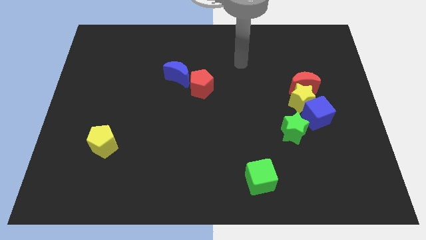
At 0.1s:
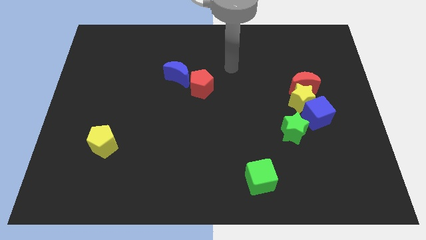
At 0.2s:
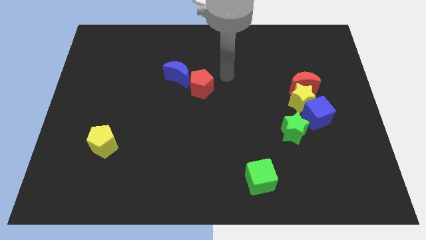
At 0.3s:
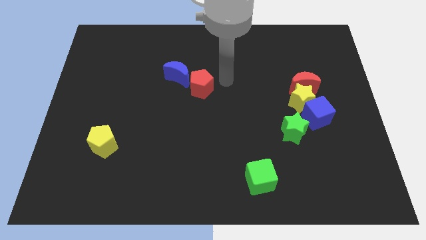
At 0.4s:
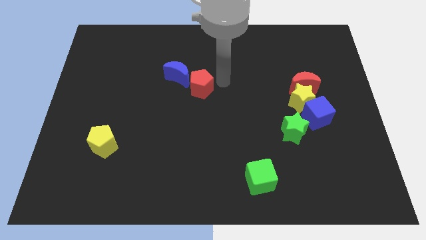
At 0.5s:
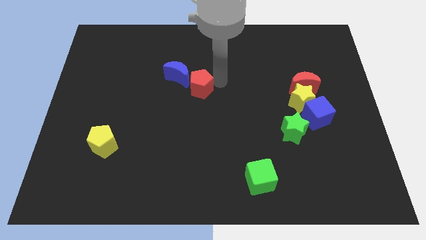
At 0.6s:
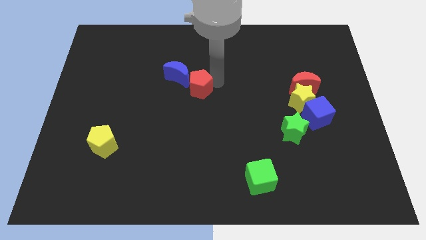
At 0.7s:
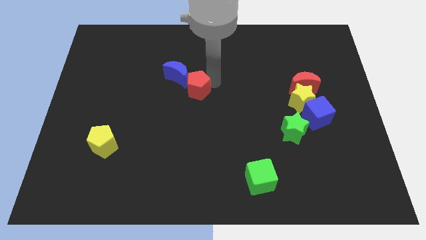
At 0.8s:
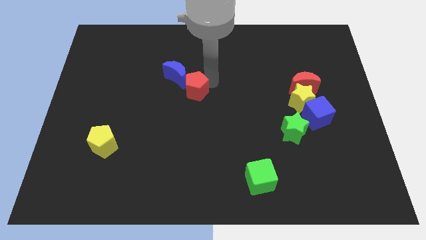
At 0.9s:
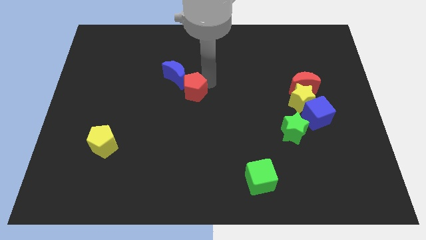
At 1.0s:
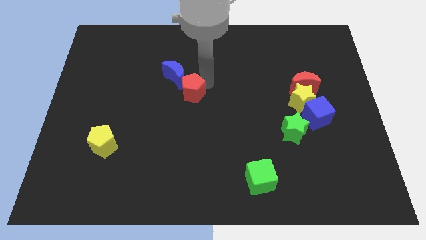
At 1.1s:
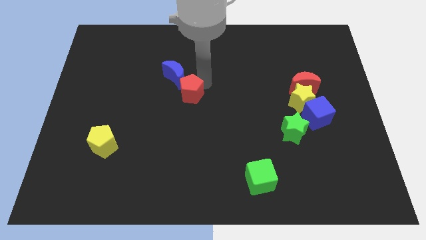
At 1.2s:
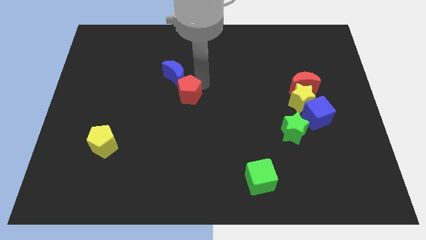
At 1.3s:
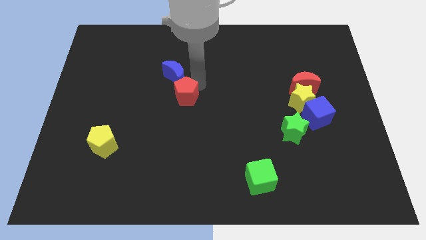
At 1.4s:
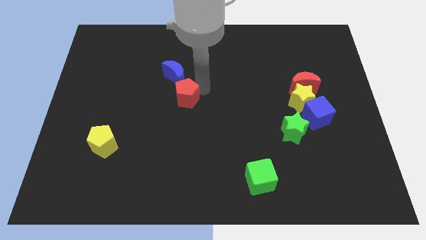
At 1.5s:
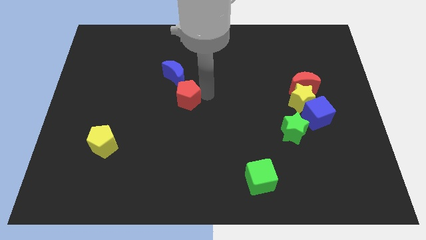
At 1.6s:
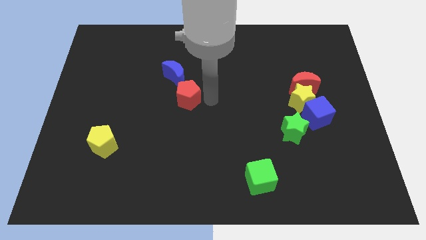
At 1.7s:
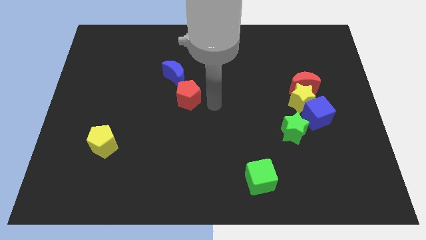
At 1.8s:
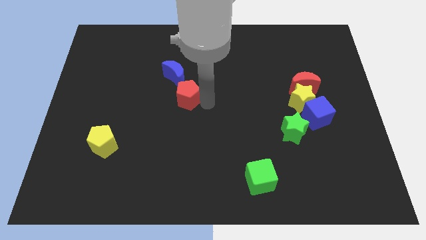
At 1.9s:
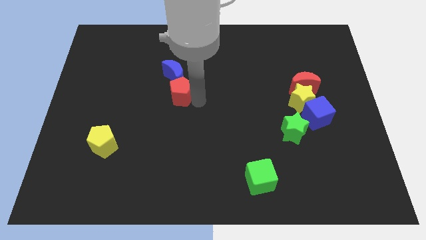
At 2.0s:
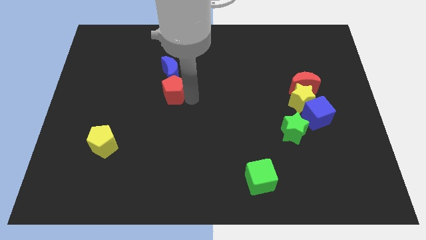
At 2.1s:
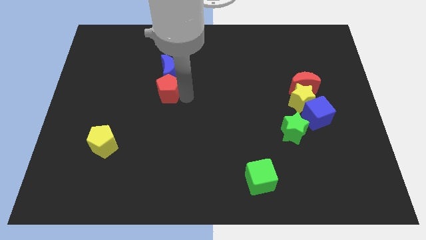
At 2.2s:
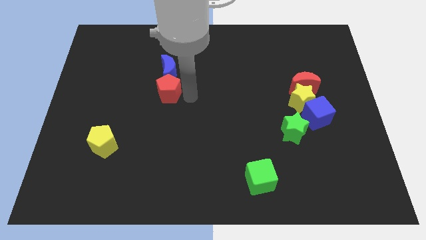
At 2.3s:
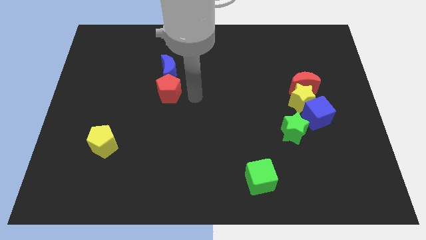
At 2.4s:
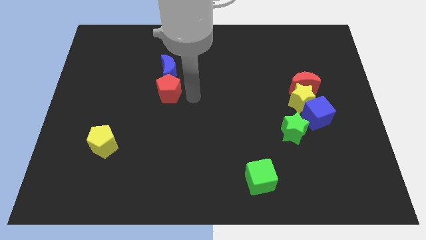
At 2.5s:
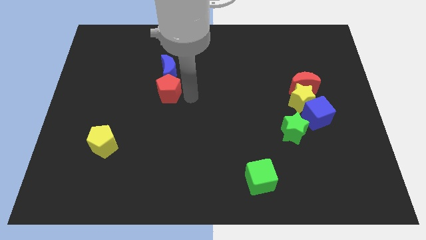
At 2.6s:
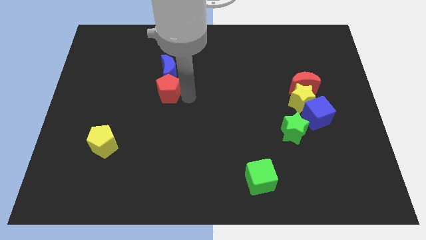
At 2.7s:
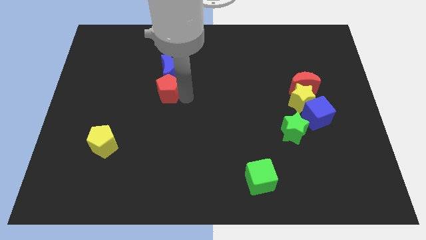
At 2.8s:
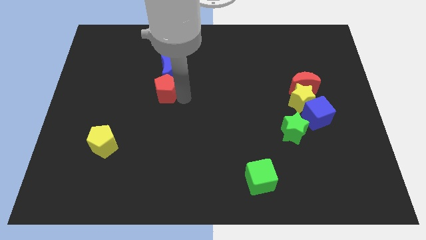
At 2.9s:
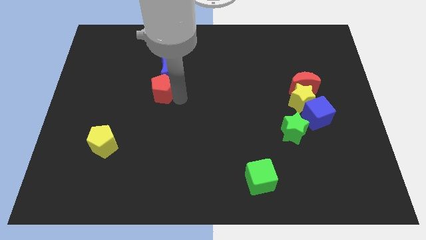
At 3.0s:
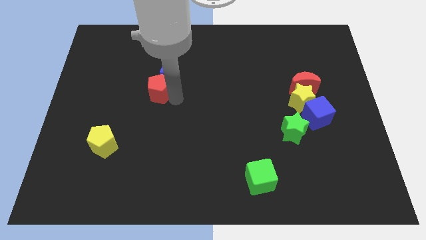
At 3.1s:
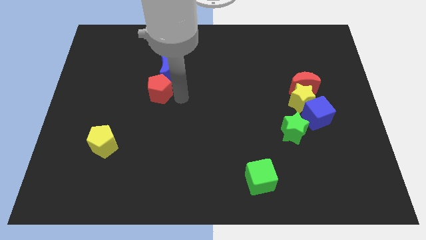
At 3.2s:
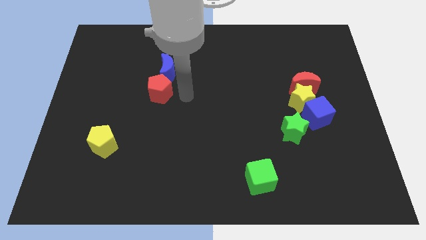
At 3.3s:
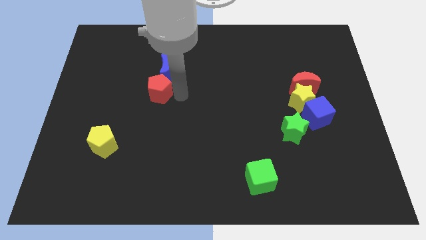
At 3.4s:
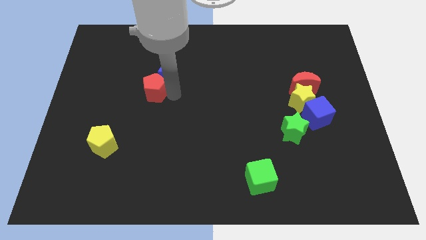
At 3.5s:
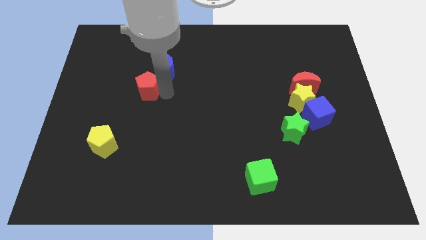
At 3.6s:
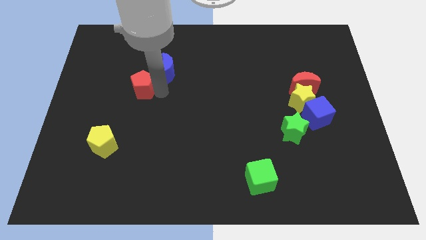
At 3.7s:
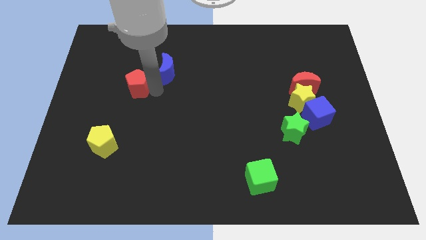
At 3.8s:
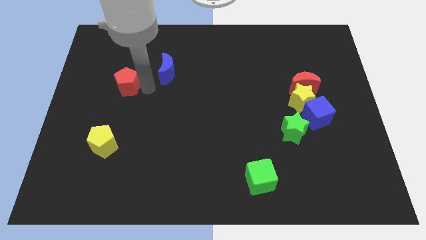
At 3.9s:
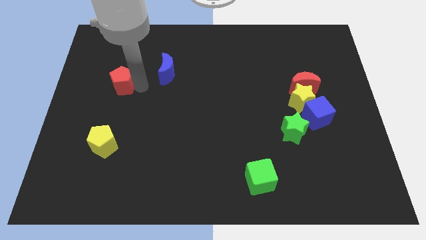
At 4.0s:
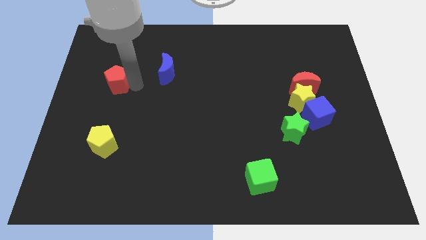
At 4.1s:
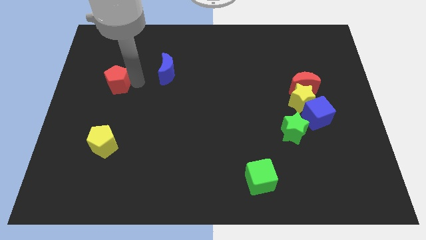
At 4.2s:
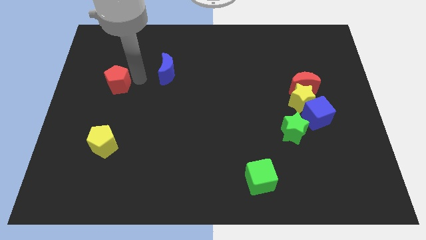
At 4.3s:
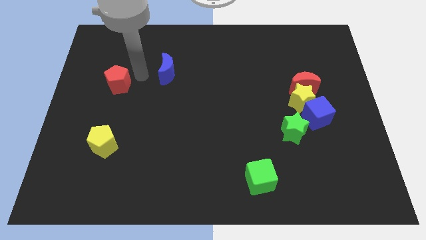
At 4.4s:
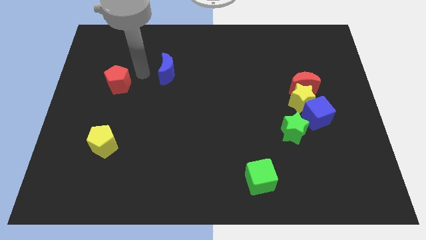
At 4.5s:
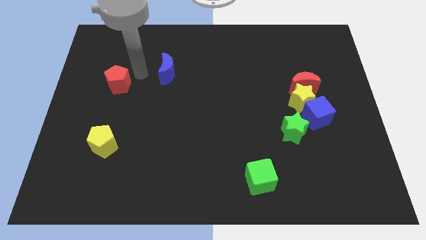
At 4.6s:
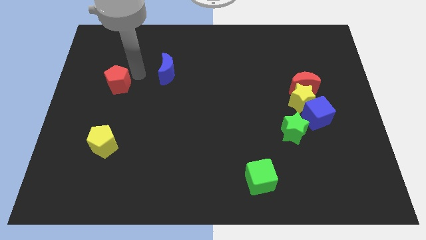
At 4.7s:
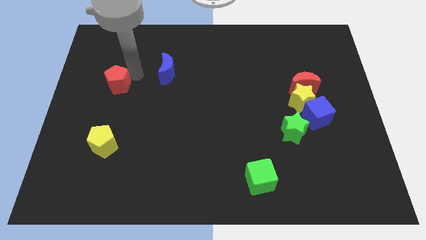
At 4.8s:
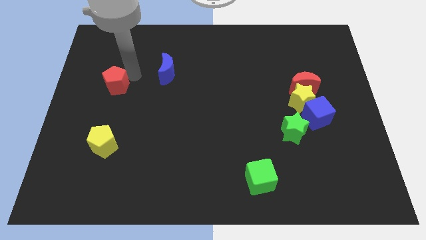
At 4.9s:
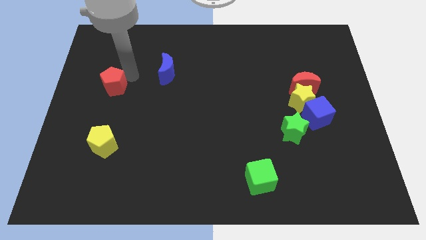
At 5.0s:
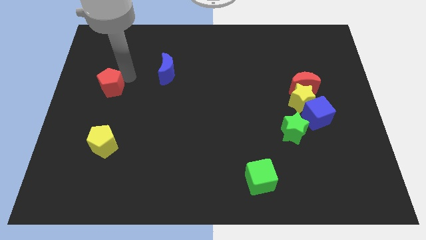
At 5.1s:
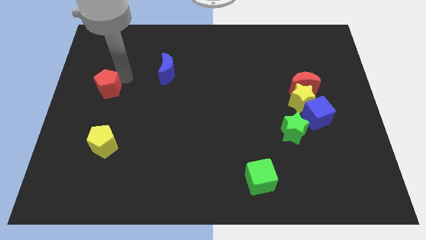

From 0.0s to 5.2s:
put the red pentagon to the left side
